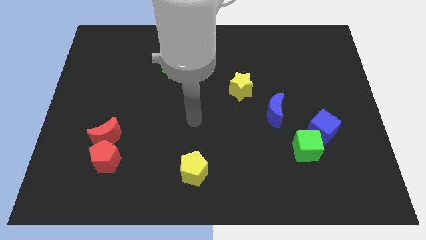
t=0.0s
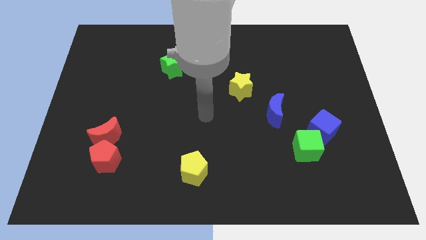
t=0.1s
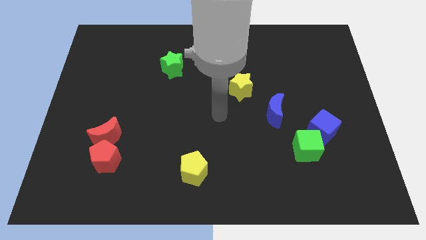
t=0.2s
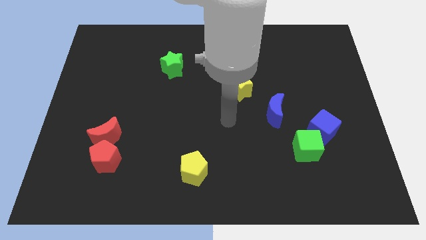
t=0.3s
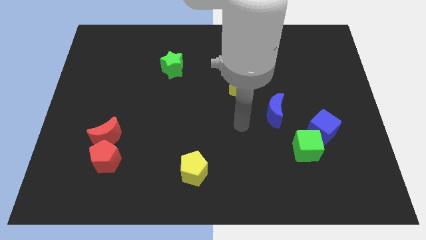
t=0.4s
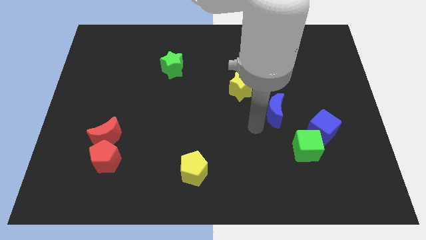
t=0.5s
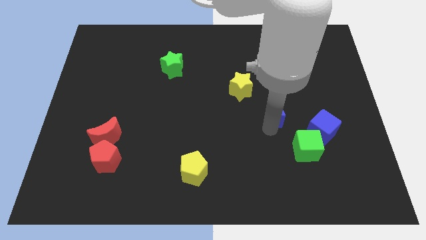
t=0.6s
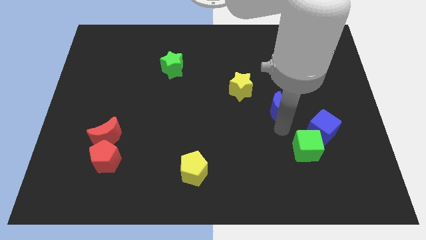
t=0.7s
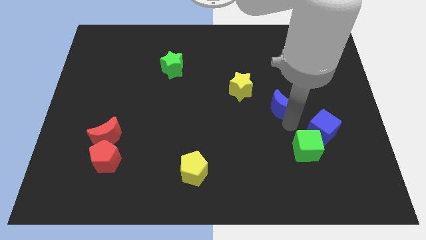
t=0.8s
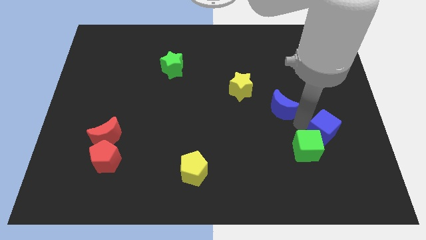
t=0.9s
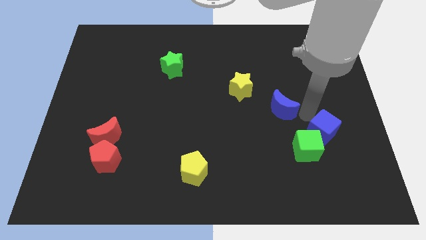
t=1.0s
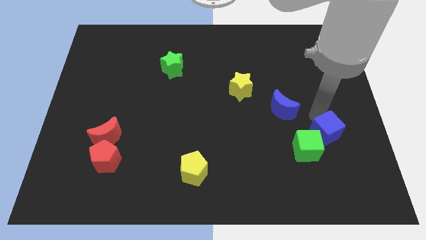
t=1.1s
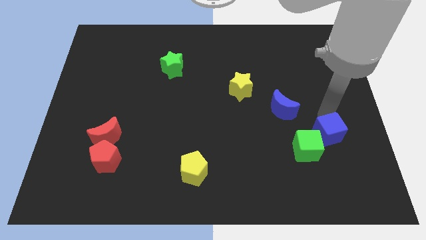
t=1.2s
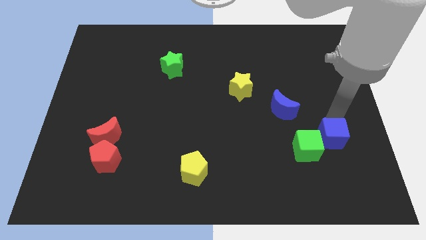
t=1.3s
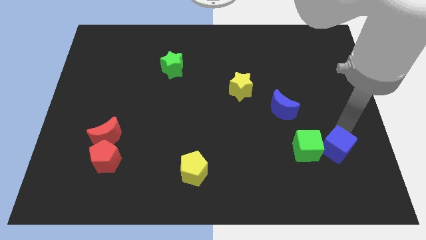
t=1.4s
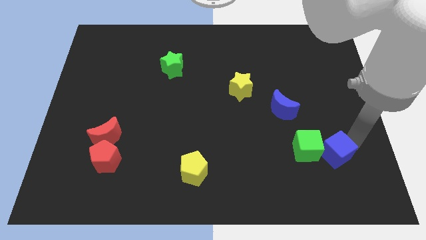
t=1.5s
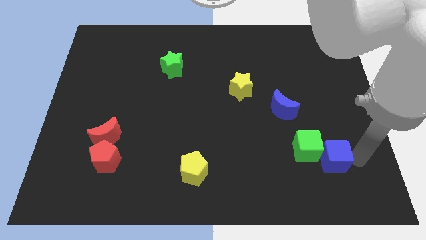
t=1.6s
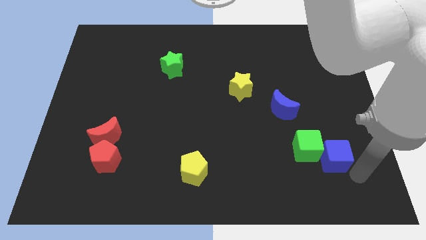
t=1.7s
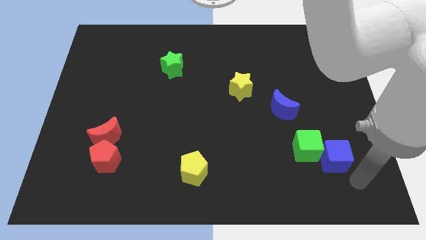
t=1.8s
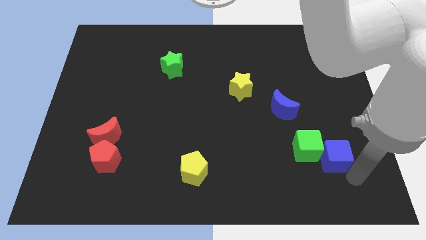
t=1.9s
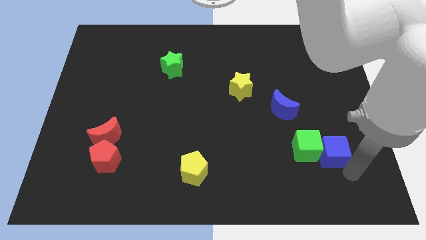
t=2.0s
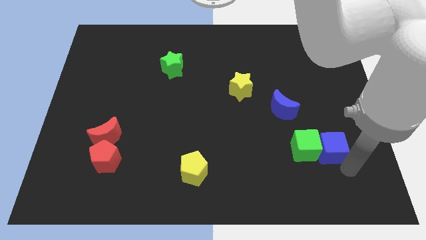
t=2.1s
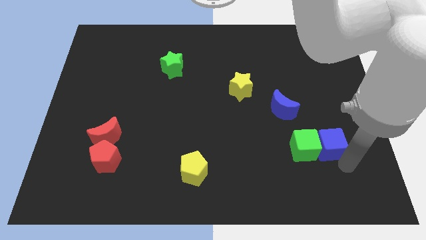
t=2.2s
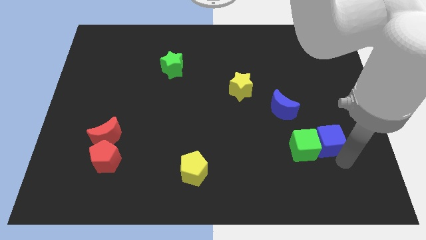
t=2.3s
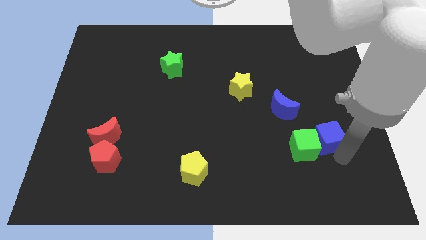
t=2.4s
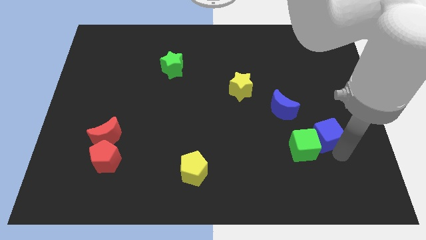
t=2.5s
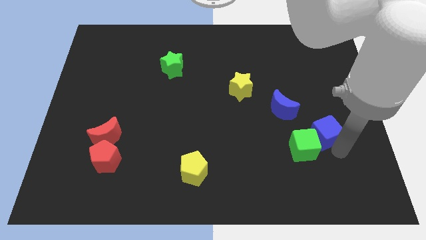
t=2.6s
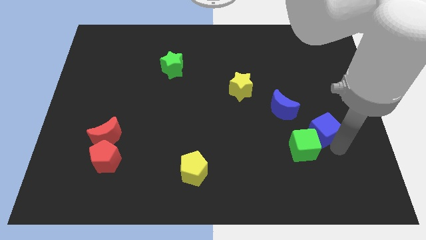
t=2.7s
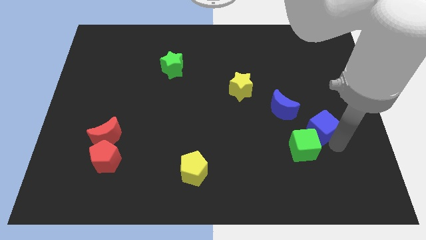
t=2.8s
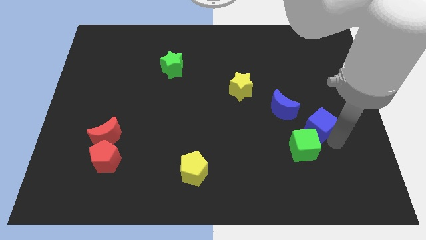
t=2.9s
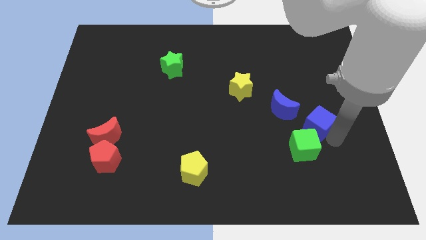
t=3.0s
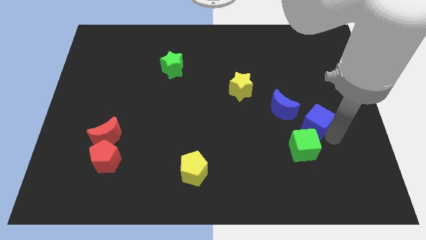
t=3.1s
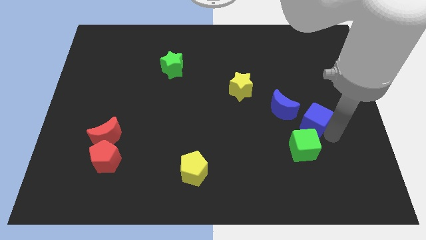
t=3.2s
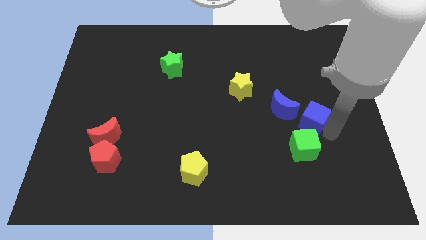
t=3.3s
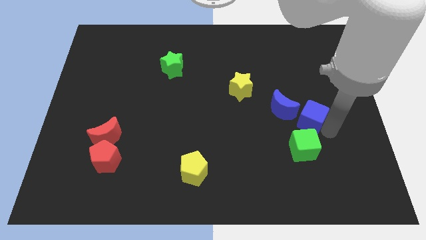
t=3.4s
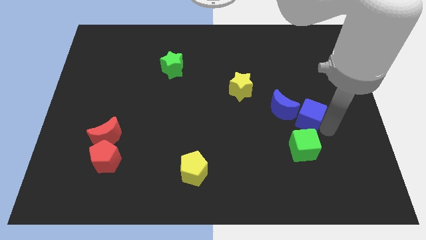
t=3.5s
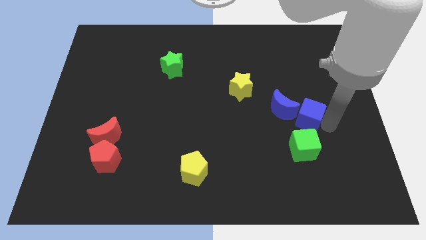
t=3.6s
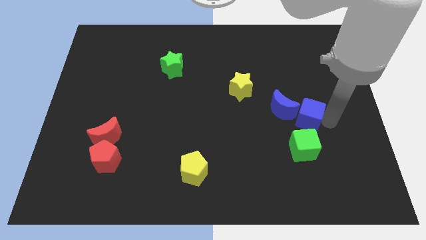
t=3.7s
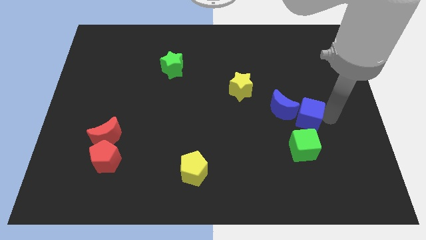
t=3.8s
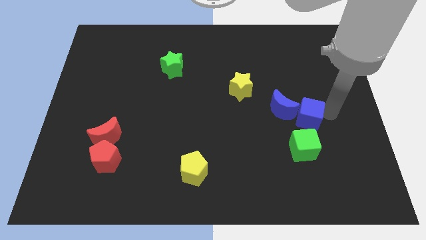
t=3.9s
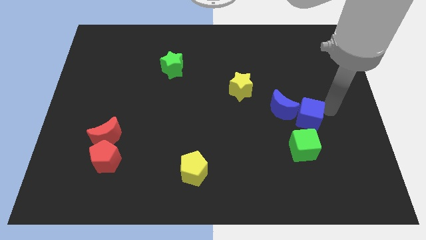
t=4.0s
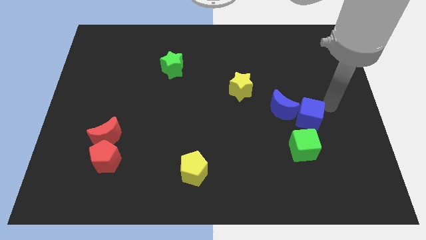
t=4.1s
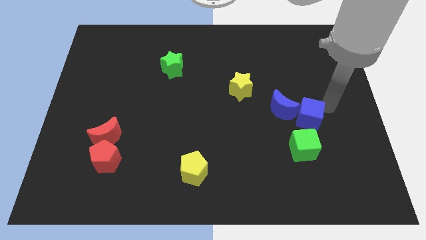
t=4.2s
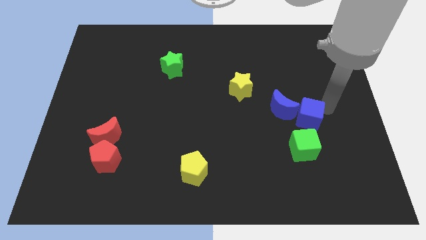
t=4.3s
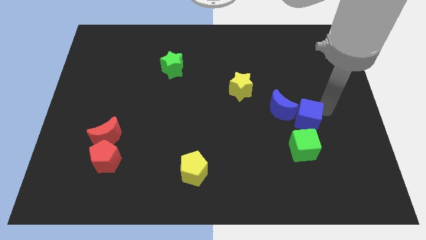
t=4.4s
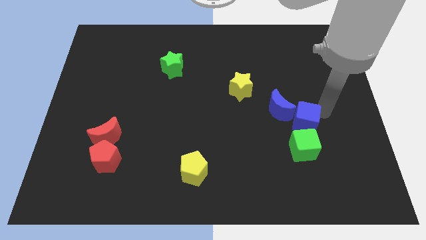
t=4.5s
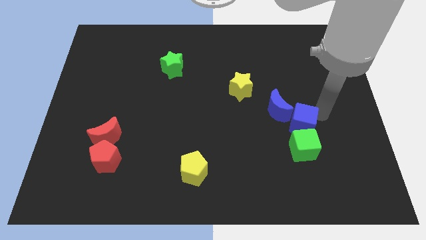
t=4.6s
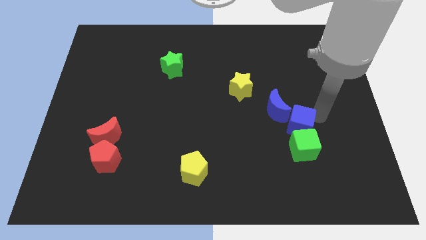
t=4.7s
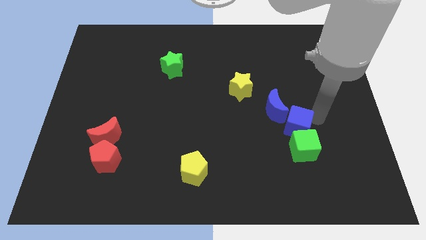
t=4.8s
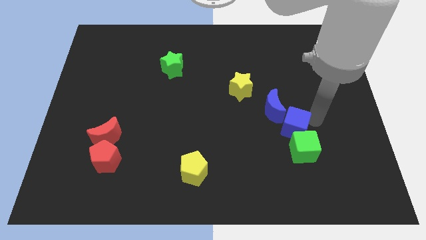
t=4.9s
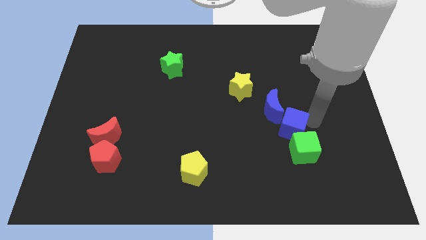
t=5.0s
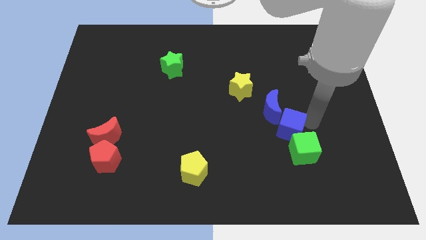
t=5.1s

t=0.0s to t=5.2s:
slide the blue cube a bit to the left

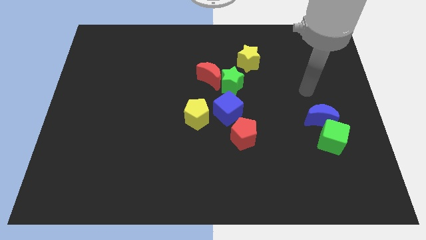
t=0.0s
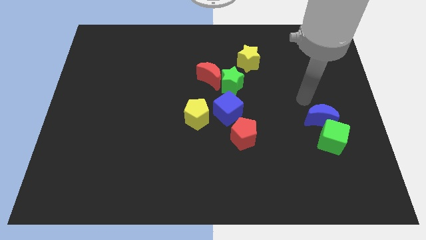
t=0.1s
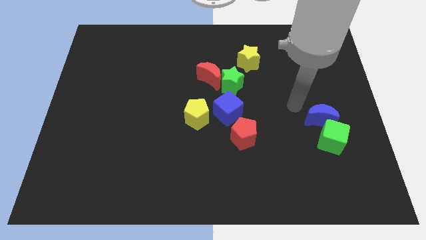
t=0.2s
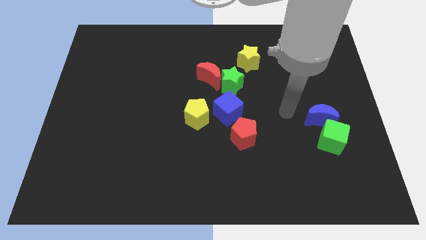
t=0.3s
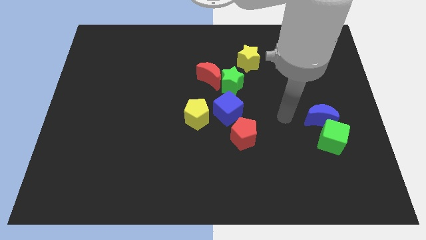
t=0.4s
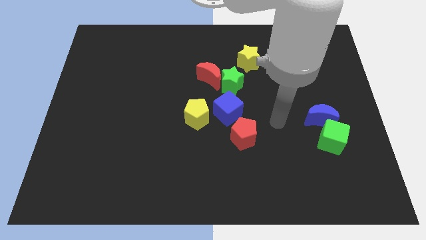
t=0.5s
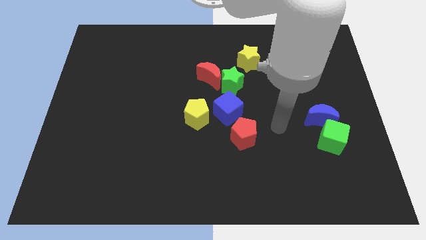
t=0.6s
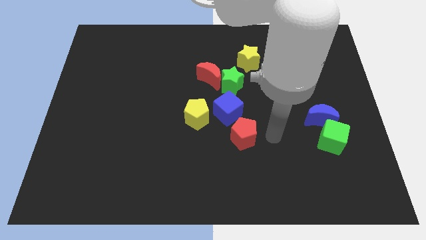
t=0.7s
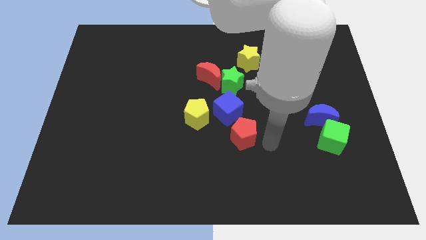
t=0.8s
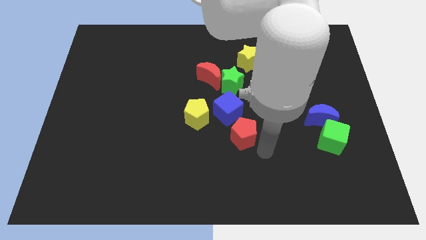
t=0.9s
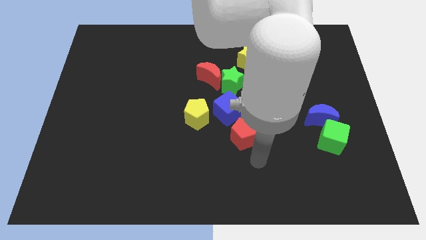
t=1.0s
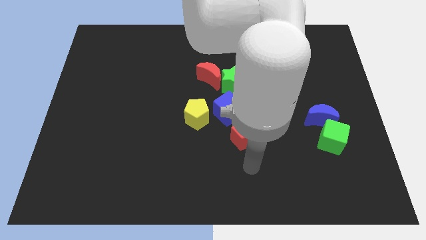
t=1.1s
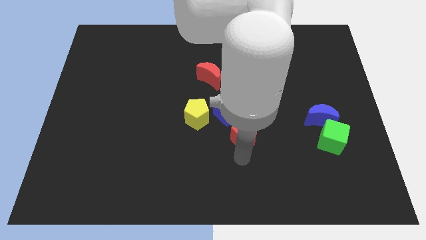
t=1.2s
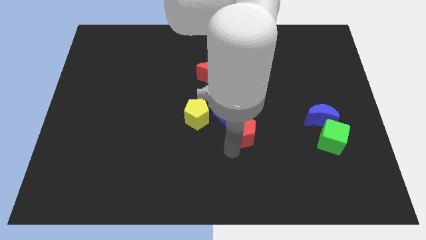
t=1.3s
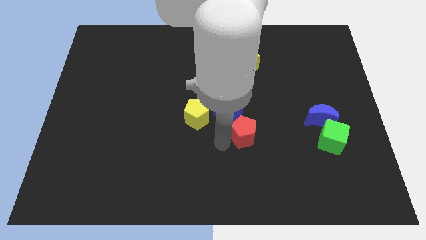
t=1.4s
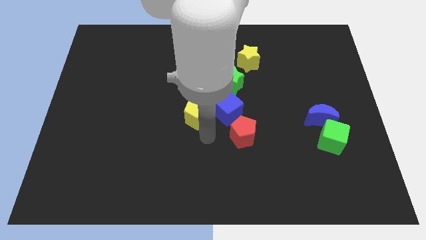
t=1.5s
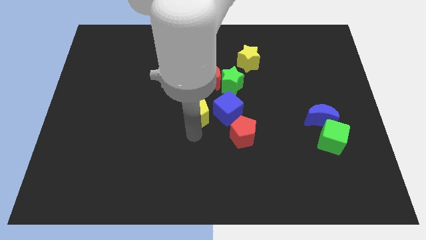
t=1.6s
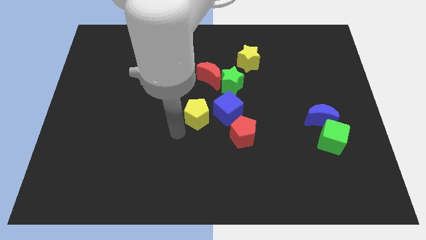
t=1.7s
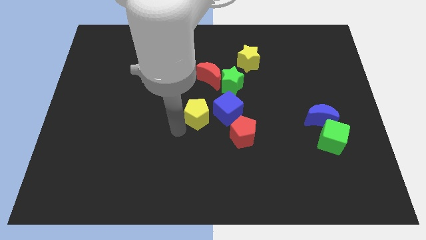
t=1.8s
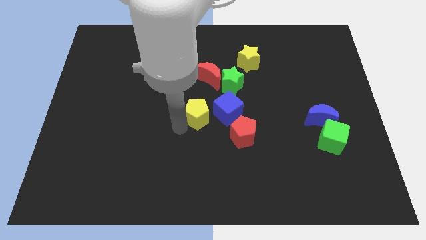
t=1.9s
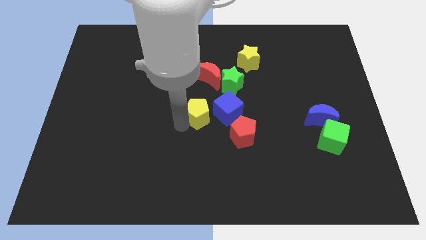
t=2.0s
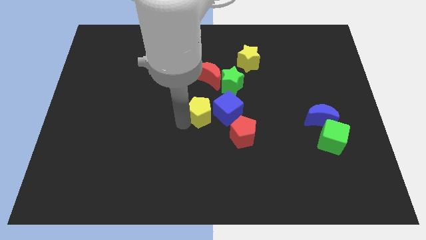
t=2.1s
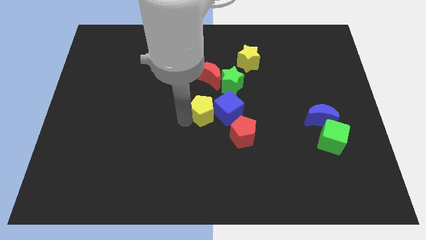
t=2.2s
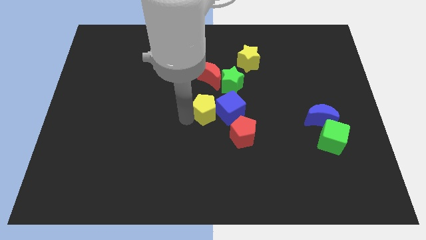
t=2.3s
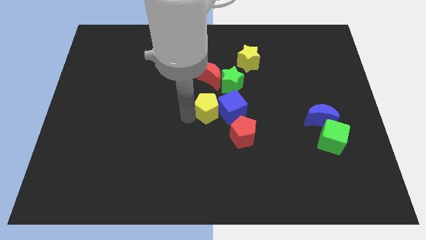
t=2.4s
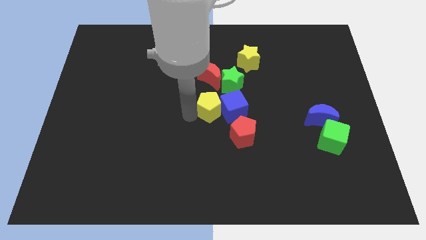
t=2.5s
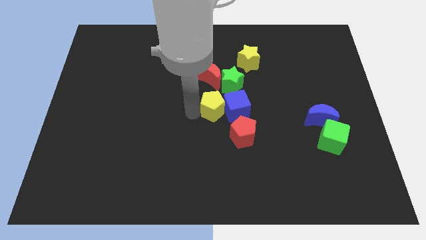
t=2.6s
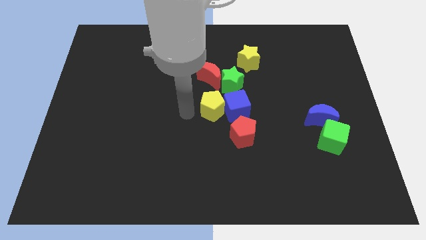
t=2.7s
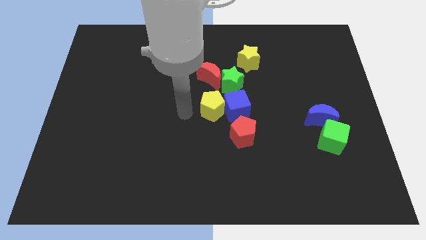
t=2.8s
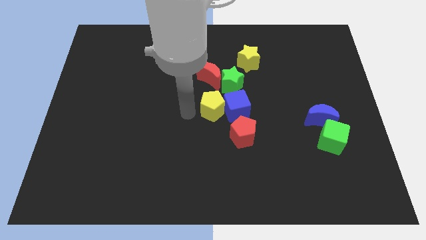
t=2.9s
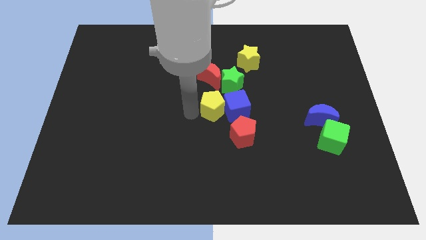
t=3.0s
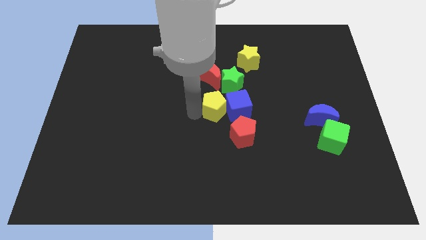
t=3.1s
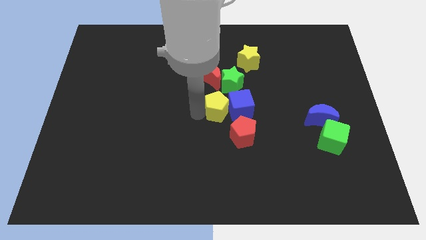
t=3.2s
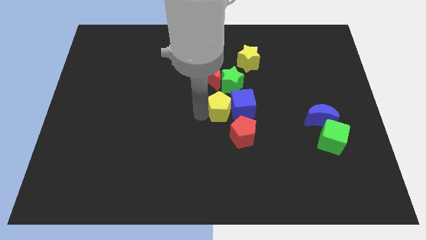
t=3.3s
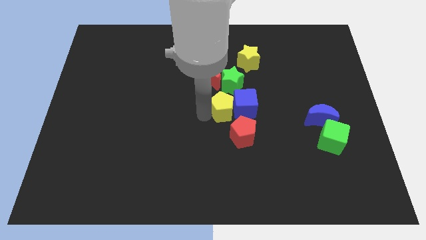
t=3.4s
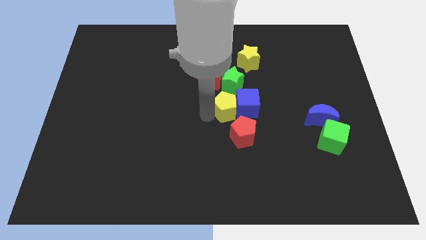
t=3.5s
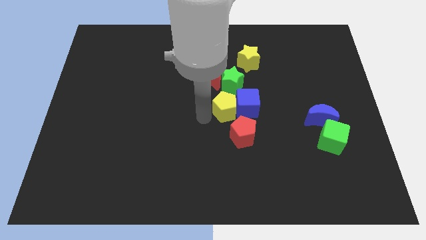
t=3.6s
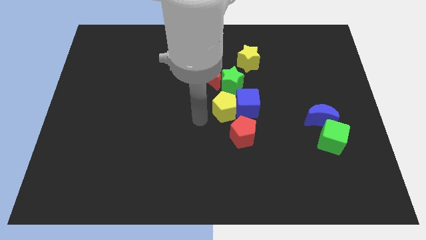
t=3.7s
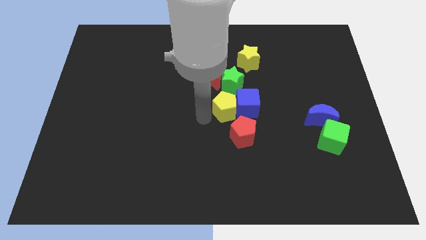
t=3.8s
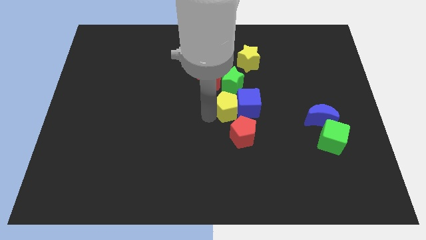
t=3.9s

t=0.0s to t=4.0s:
slightly push the yellow pentagon right
